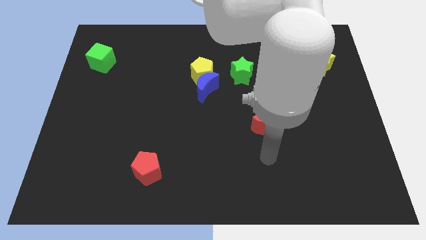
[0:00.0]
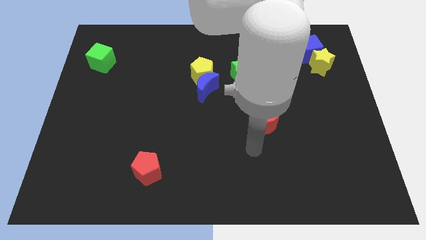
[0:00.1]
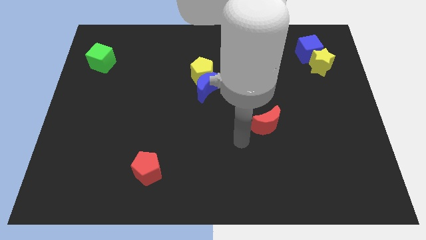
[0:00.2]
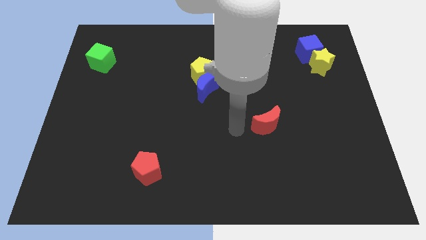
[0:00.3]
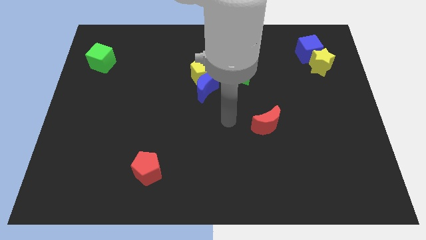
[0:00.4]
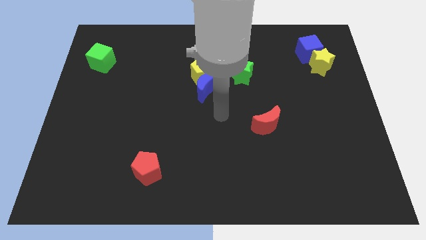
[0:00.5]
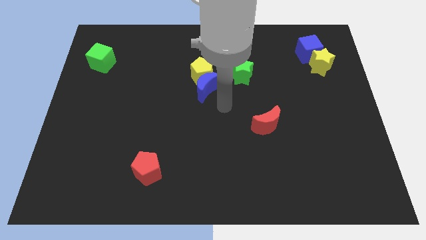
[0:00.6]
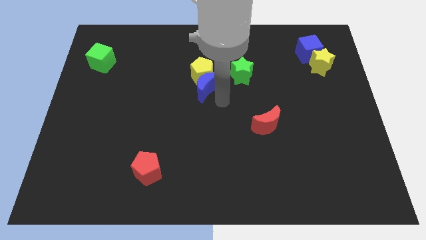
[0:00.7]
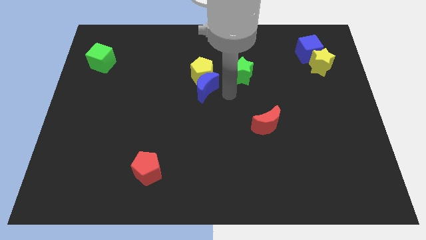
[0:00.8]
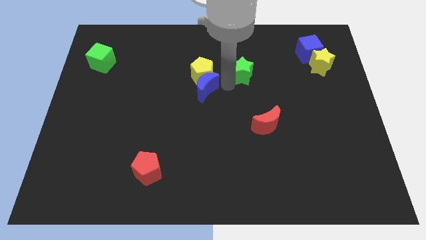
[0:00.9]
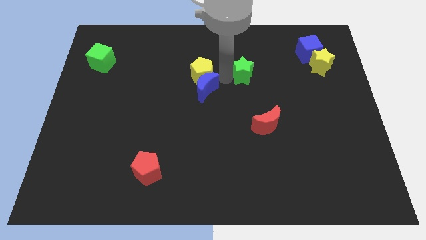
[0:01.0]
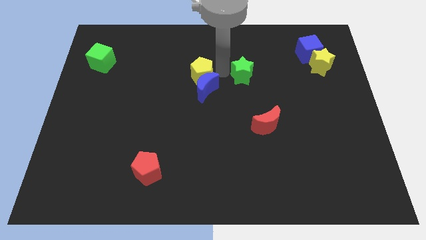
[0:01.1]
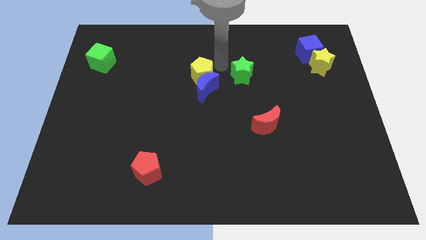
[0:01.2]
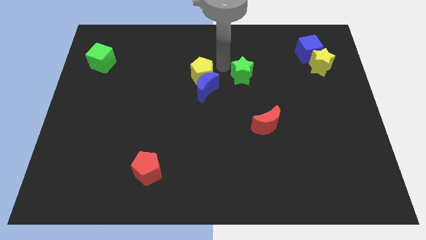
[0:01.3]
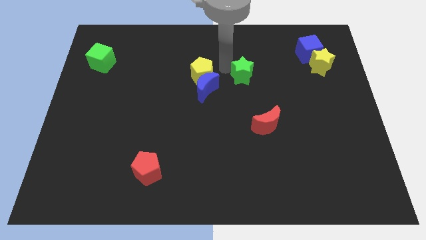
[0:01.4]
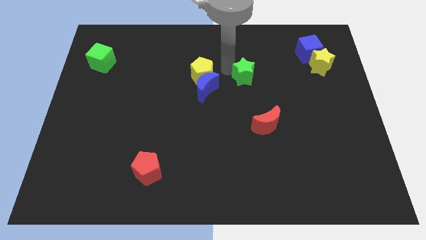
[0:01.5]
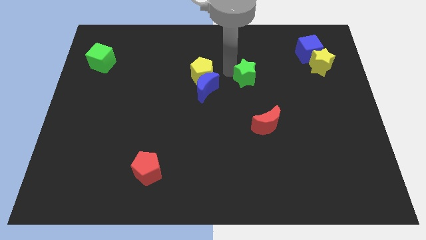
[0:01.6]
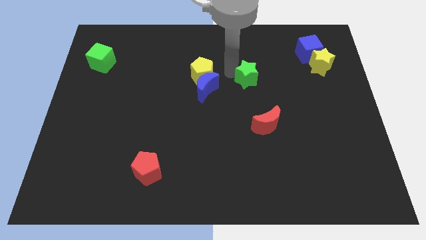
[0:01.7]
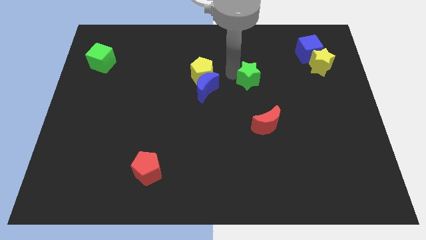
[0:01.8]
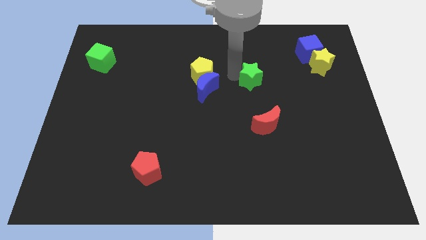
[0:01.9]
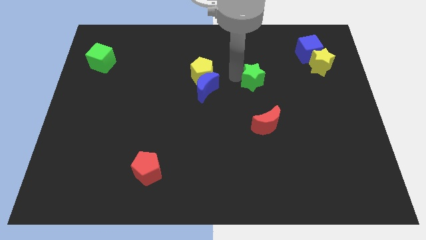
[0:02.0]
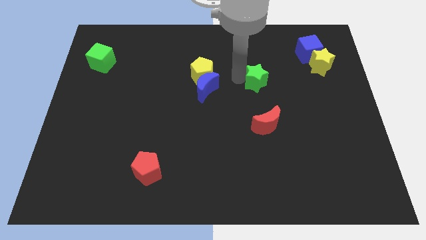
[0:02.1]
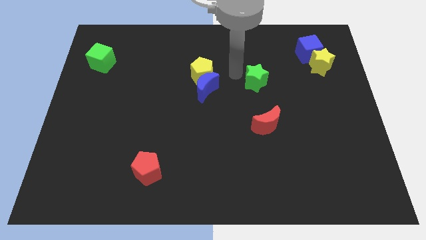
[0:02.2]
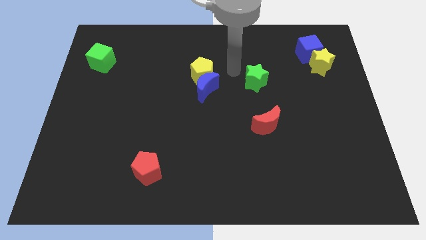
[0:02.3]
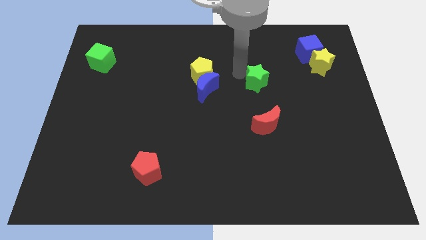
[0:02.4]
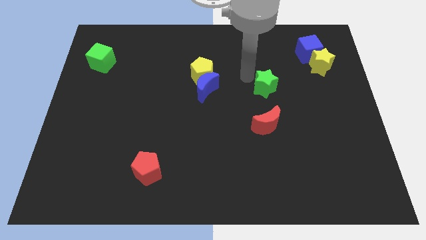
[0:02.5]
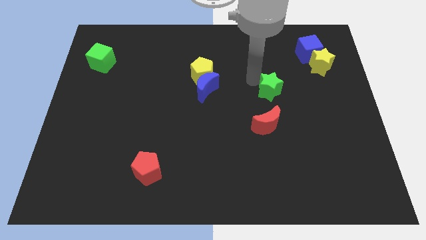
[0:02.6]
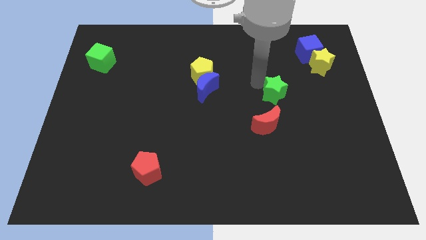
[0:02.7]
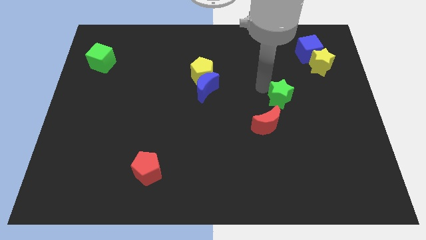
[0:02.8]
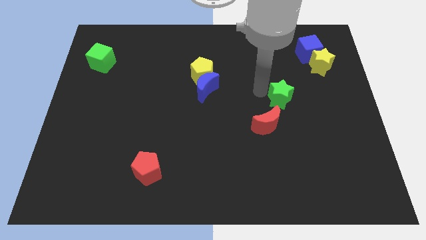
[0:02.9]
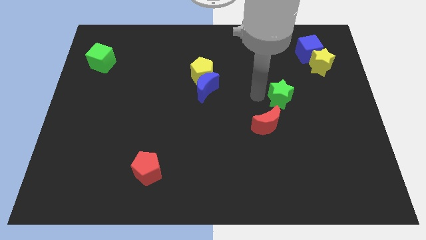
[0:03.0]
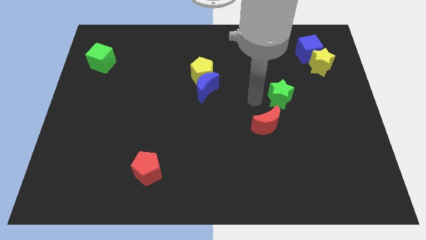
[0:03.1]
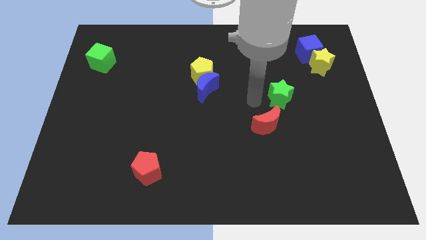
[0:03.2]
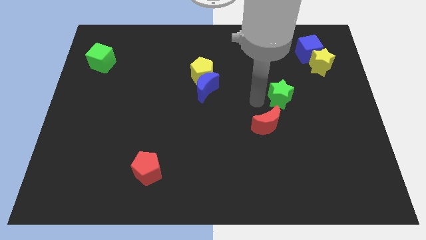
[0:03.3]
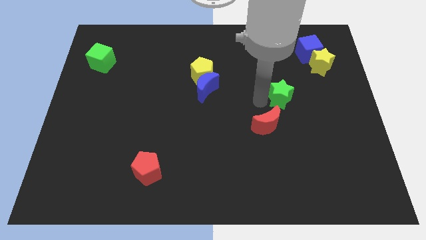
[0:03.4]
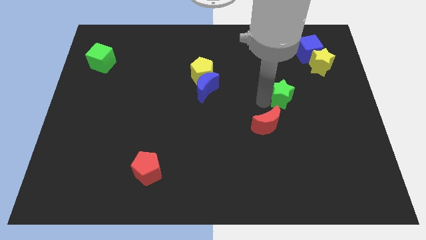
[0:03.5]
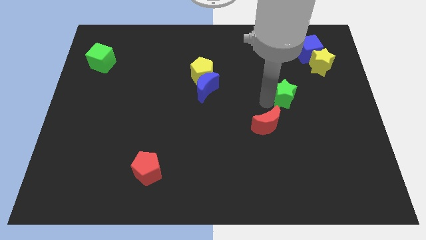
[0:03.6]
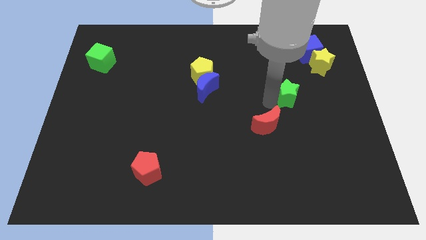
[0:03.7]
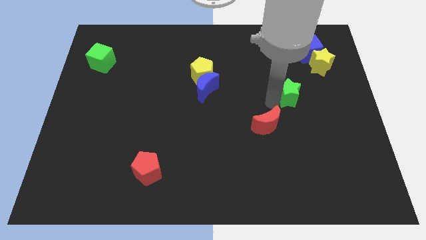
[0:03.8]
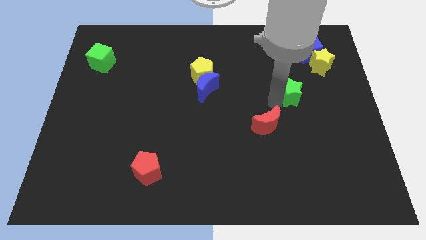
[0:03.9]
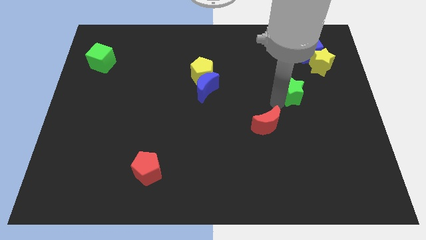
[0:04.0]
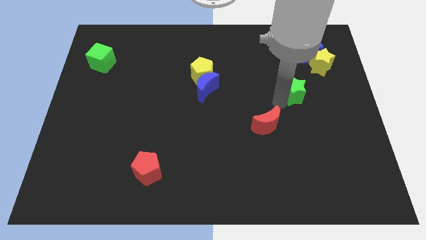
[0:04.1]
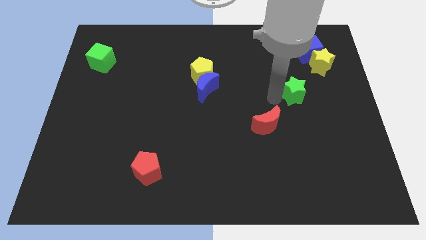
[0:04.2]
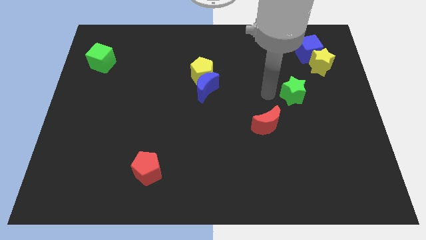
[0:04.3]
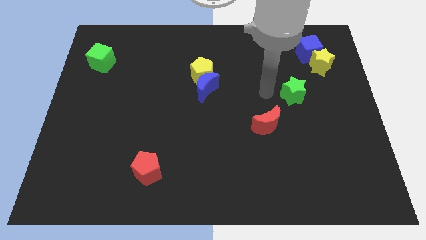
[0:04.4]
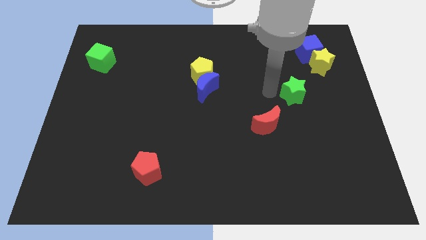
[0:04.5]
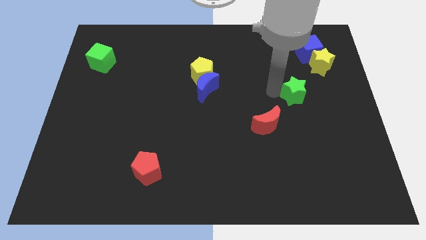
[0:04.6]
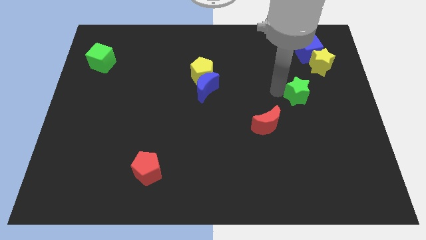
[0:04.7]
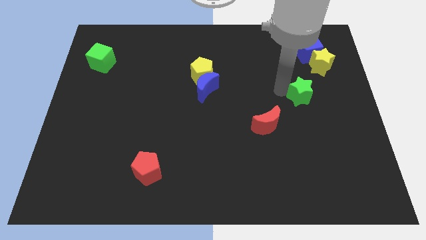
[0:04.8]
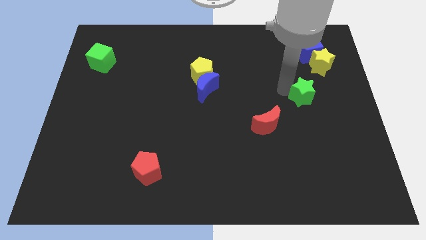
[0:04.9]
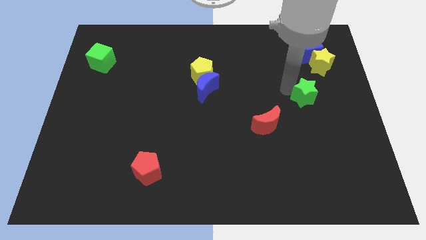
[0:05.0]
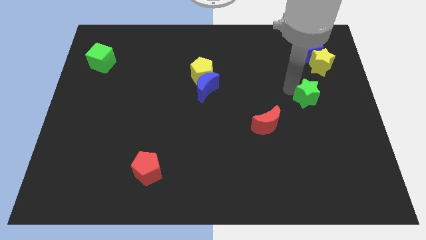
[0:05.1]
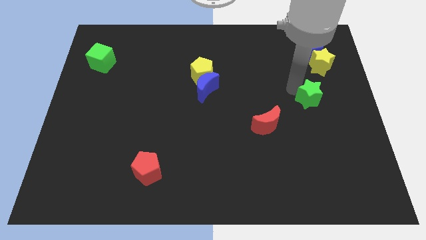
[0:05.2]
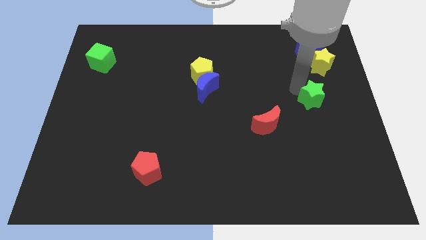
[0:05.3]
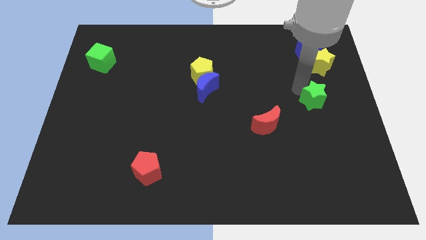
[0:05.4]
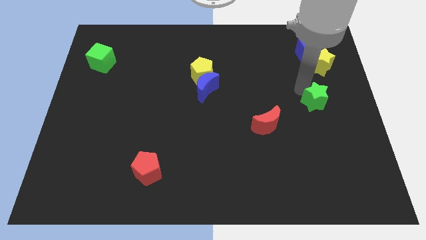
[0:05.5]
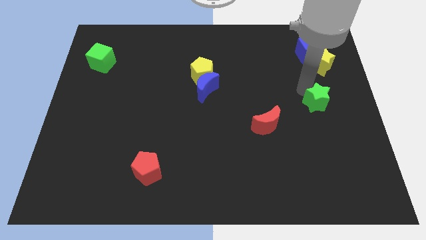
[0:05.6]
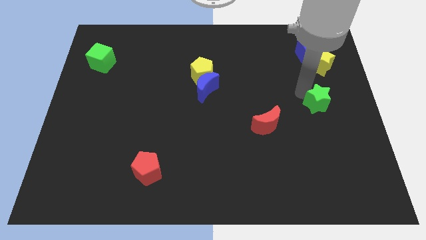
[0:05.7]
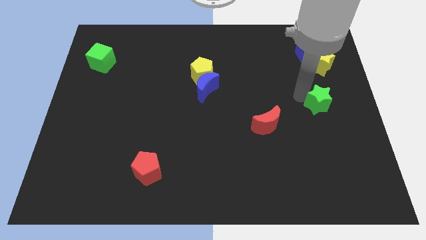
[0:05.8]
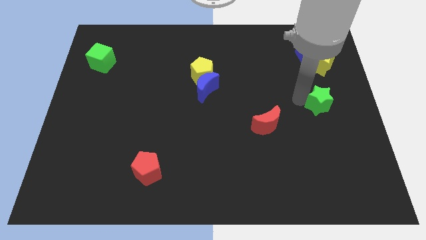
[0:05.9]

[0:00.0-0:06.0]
push the green star to the right side of the board
